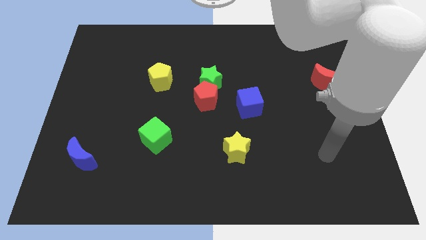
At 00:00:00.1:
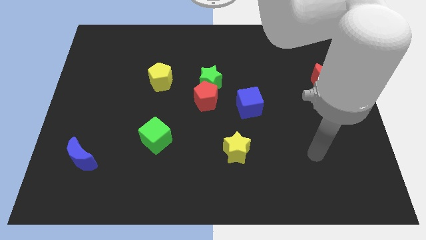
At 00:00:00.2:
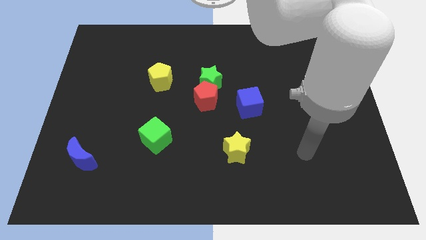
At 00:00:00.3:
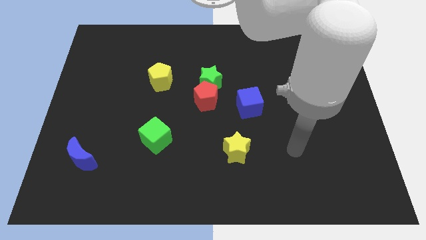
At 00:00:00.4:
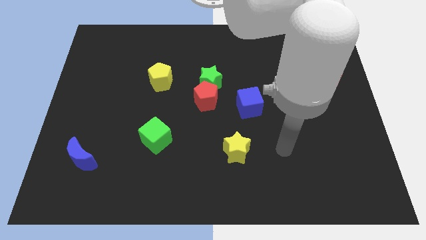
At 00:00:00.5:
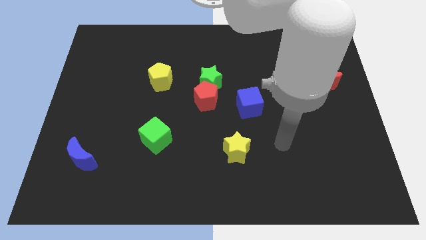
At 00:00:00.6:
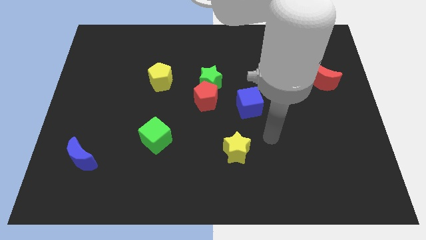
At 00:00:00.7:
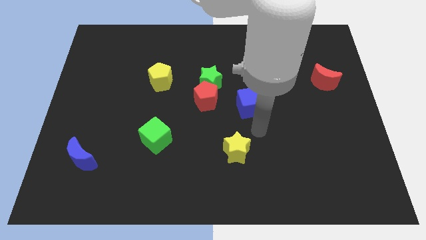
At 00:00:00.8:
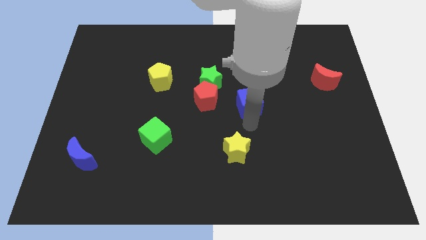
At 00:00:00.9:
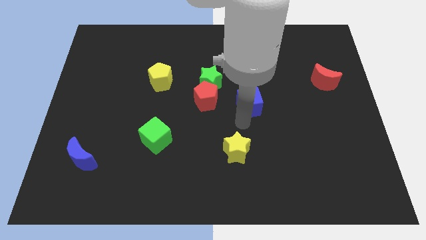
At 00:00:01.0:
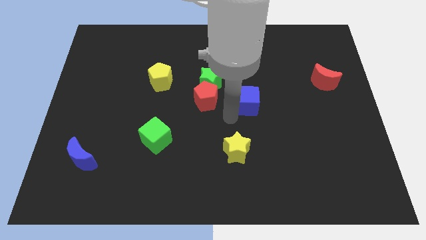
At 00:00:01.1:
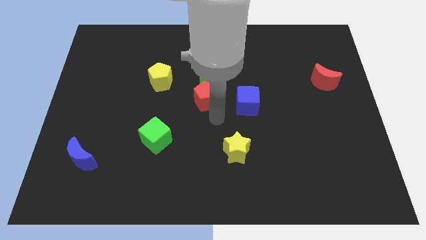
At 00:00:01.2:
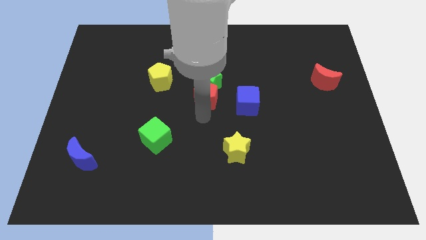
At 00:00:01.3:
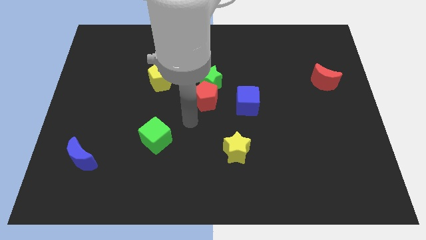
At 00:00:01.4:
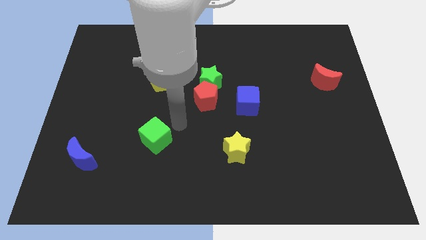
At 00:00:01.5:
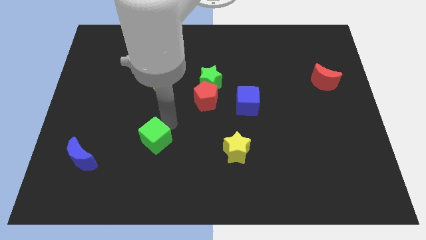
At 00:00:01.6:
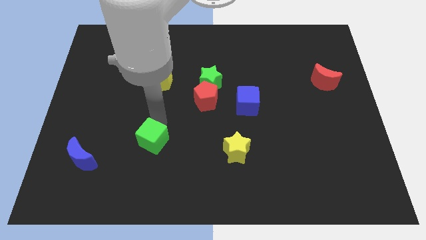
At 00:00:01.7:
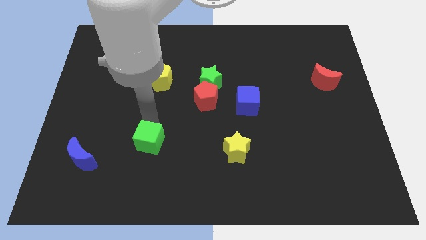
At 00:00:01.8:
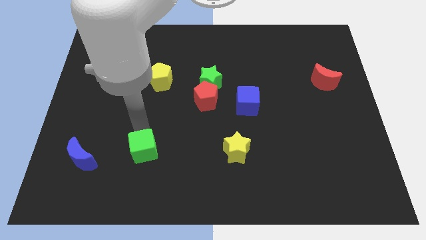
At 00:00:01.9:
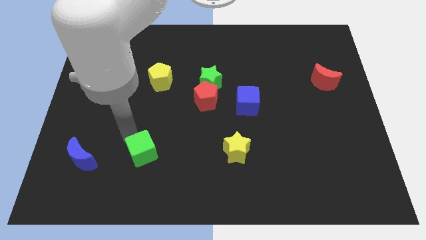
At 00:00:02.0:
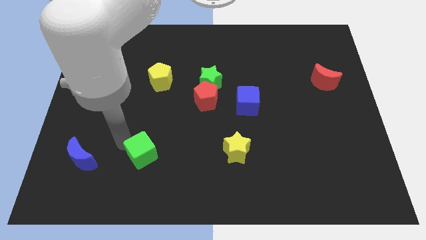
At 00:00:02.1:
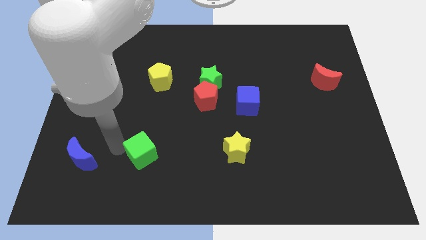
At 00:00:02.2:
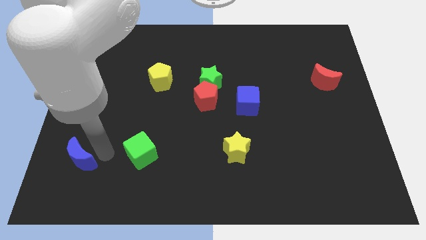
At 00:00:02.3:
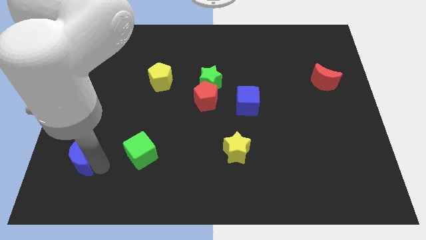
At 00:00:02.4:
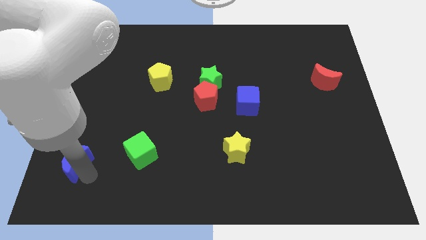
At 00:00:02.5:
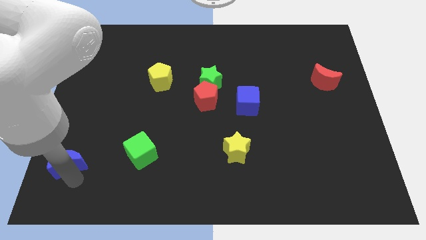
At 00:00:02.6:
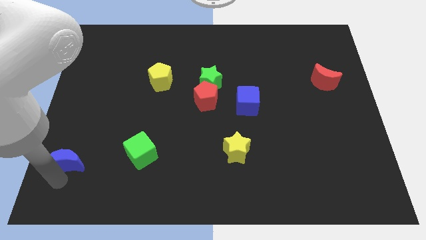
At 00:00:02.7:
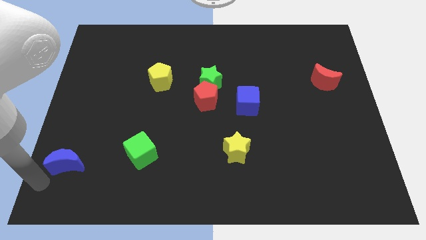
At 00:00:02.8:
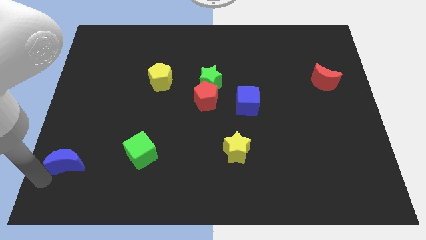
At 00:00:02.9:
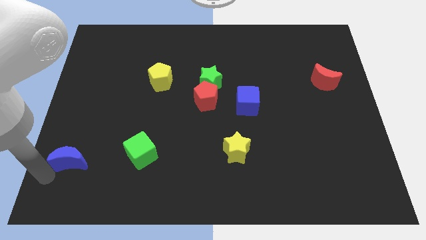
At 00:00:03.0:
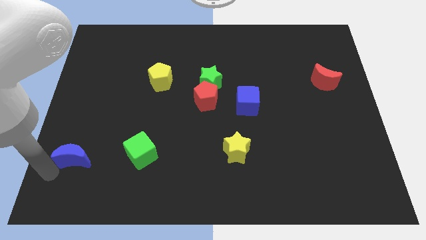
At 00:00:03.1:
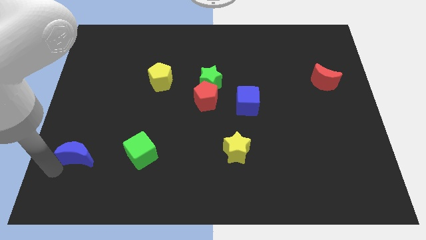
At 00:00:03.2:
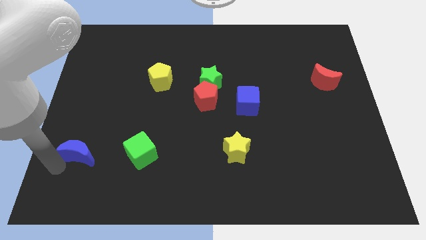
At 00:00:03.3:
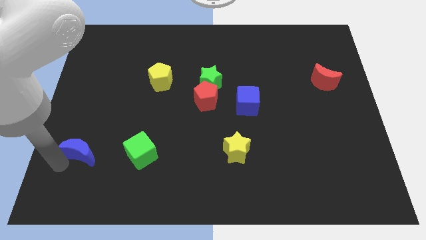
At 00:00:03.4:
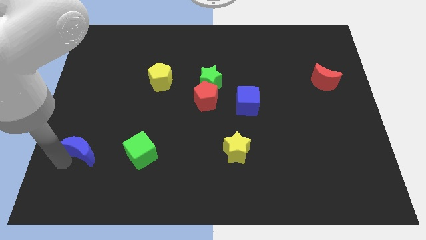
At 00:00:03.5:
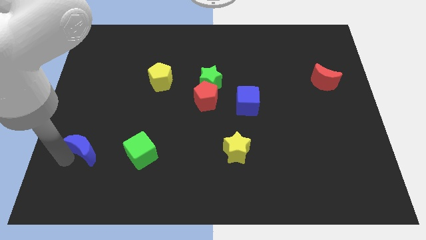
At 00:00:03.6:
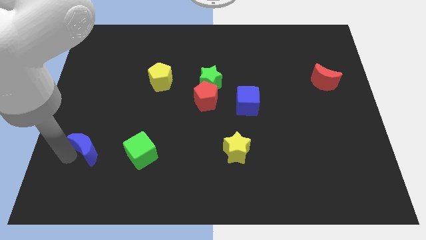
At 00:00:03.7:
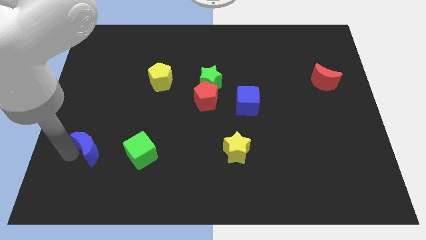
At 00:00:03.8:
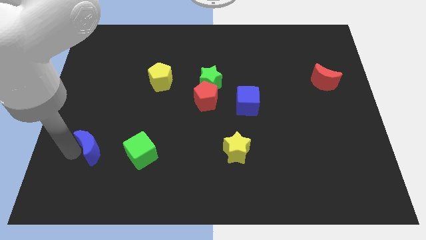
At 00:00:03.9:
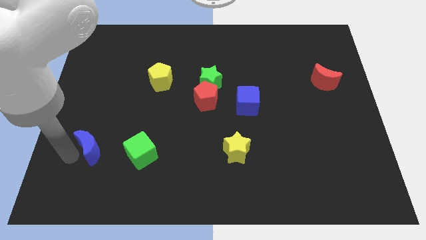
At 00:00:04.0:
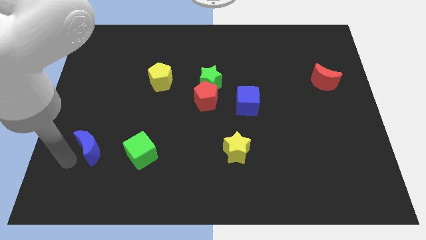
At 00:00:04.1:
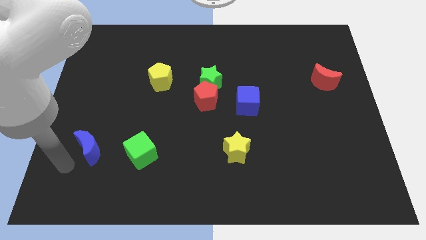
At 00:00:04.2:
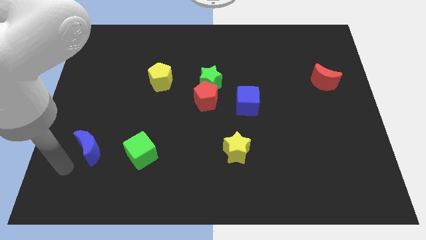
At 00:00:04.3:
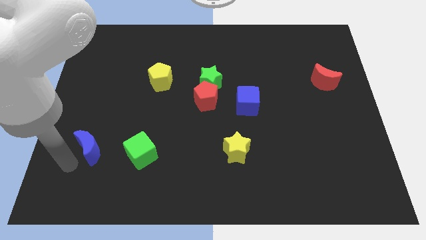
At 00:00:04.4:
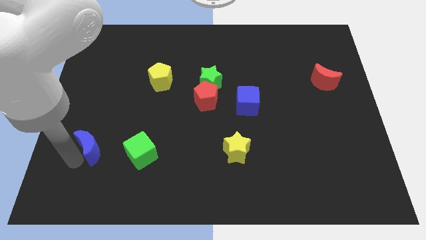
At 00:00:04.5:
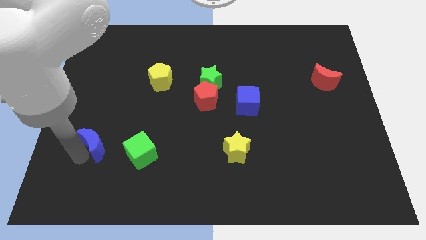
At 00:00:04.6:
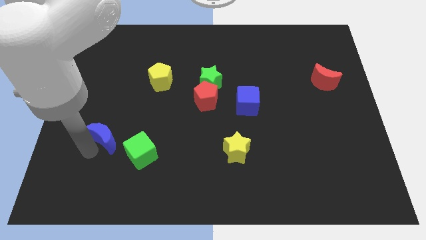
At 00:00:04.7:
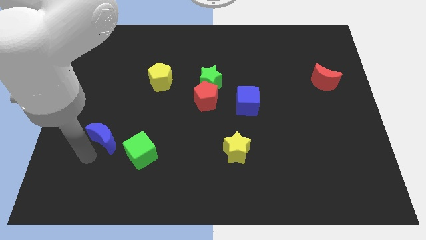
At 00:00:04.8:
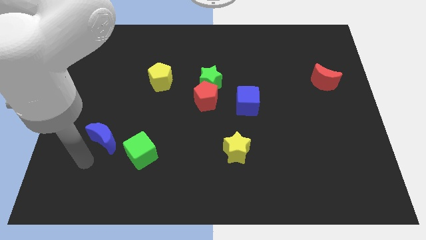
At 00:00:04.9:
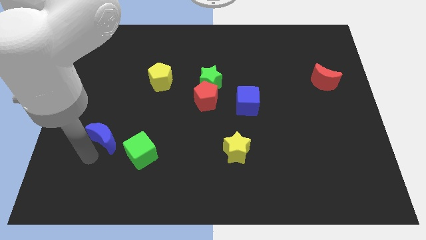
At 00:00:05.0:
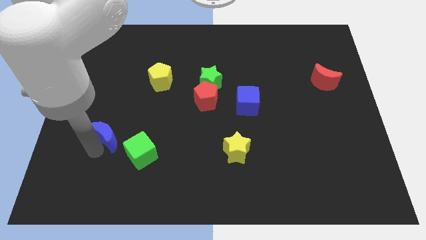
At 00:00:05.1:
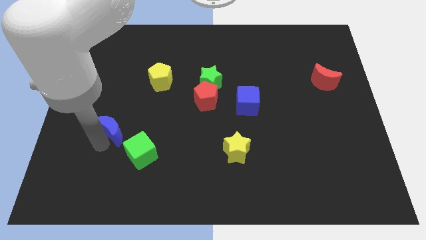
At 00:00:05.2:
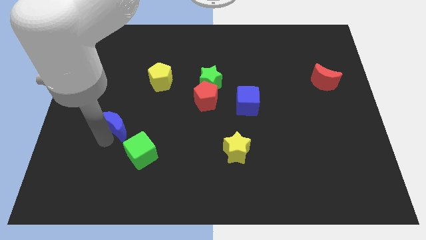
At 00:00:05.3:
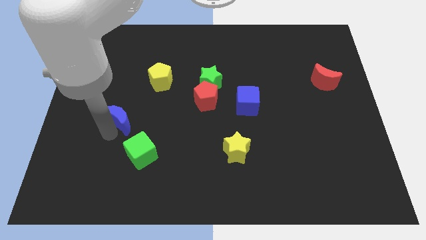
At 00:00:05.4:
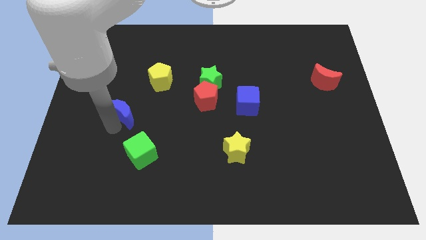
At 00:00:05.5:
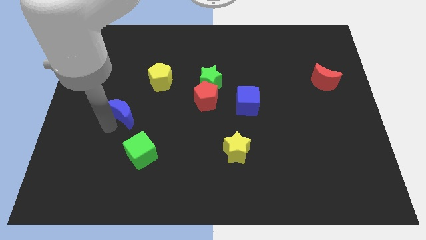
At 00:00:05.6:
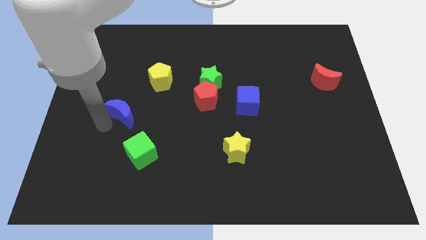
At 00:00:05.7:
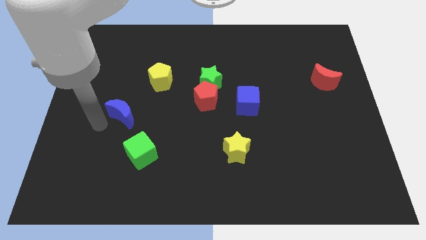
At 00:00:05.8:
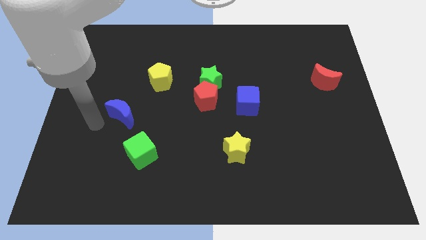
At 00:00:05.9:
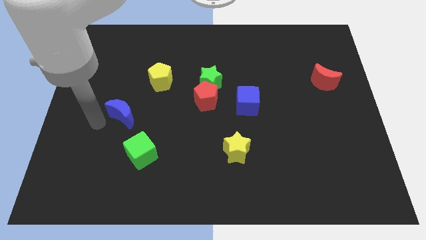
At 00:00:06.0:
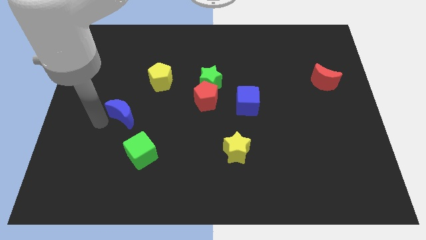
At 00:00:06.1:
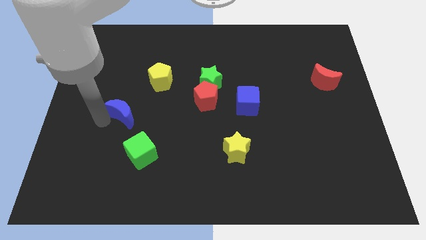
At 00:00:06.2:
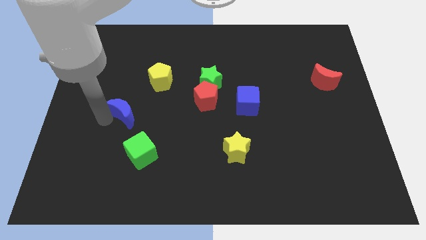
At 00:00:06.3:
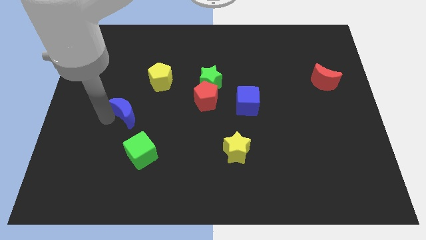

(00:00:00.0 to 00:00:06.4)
push the blue moon above the green cube

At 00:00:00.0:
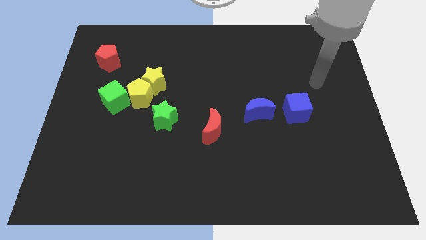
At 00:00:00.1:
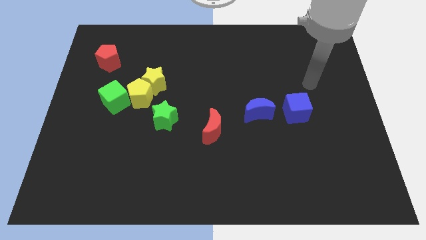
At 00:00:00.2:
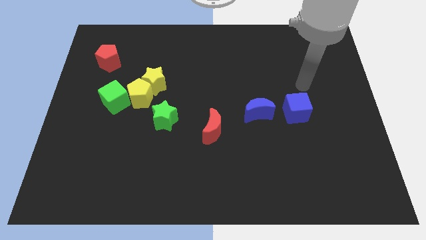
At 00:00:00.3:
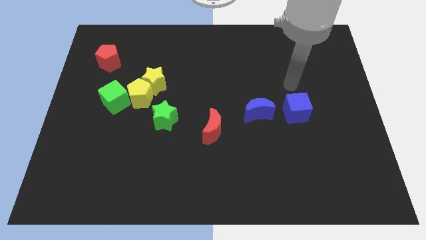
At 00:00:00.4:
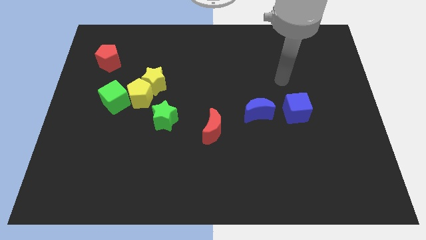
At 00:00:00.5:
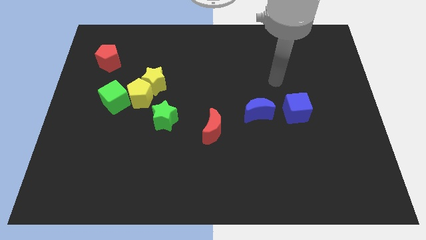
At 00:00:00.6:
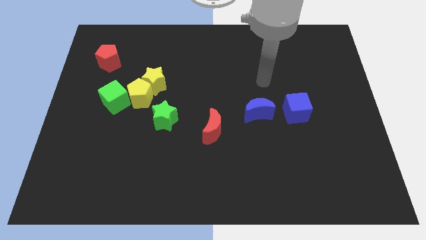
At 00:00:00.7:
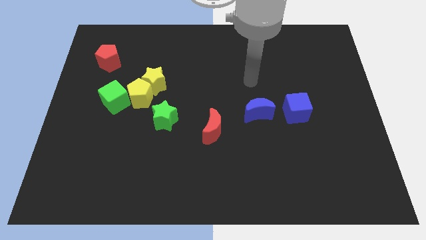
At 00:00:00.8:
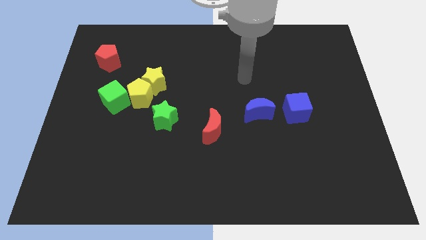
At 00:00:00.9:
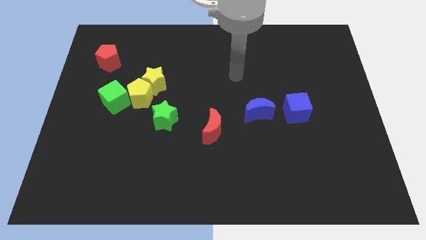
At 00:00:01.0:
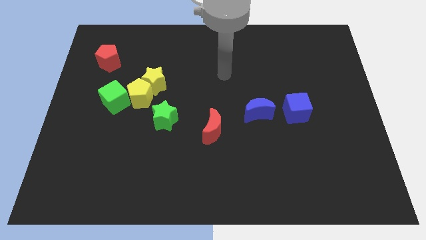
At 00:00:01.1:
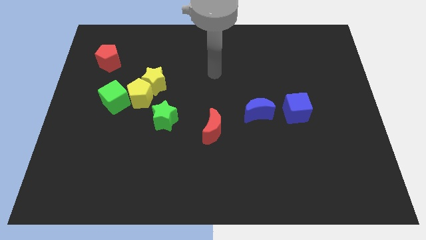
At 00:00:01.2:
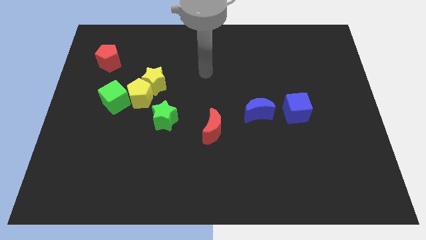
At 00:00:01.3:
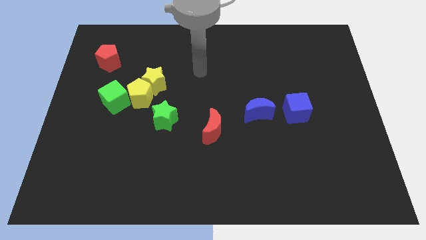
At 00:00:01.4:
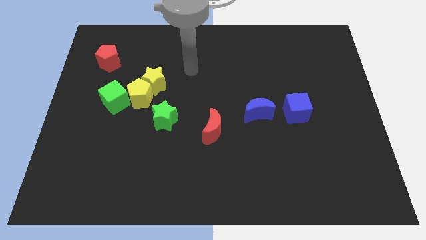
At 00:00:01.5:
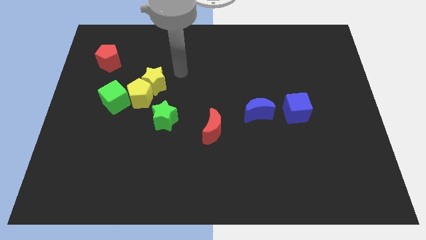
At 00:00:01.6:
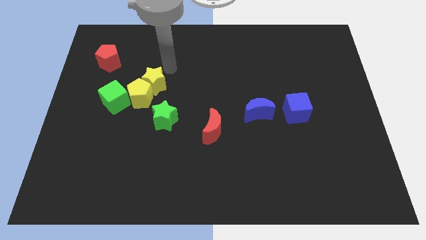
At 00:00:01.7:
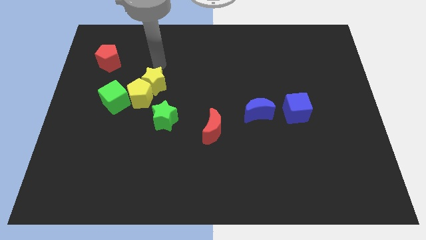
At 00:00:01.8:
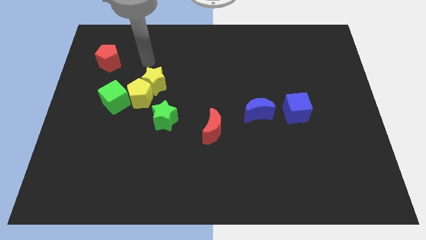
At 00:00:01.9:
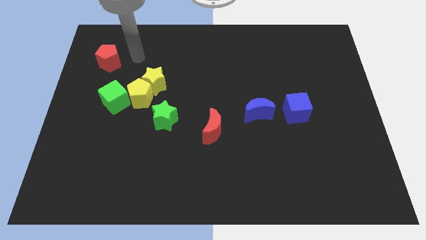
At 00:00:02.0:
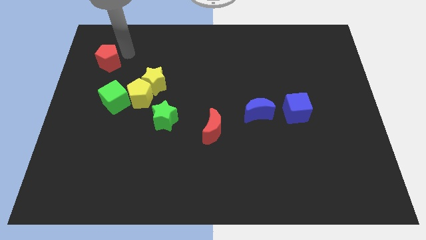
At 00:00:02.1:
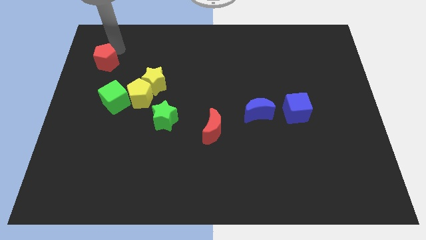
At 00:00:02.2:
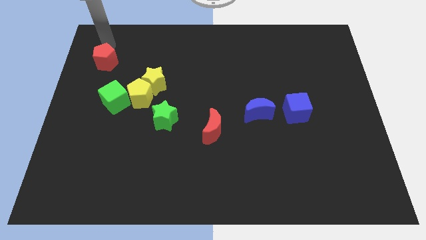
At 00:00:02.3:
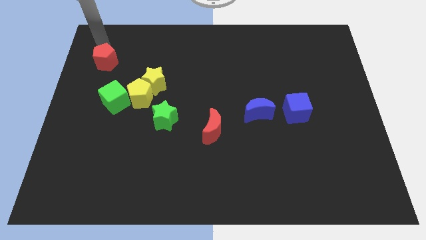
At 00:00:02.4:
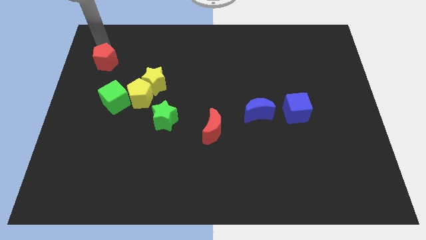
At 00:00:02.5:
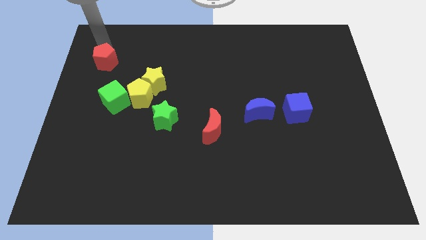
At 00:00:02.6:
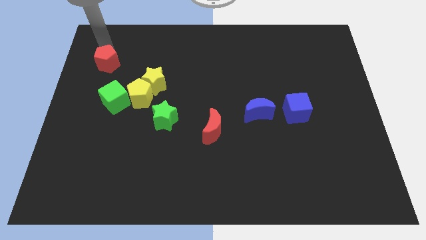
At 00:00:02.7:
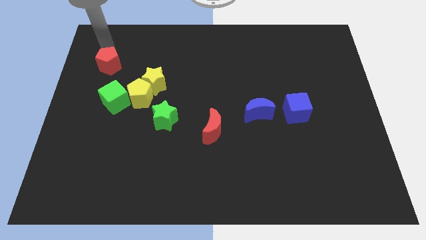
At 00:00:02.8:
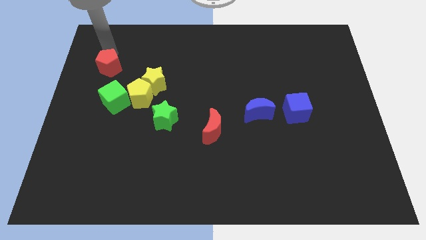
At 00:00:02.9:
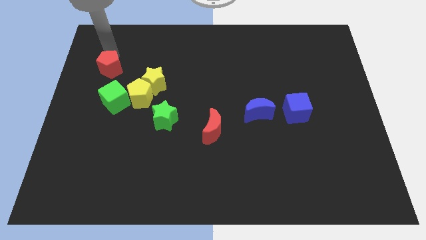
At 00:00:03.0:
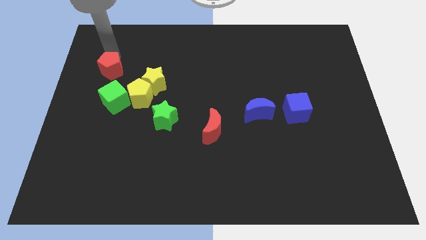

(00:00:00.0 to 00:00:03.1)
move the red pentagon just left of the yellow star
